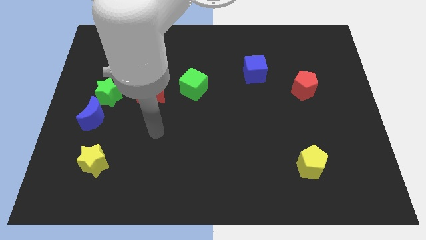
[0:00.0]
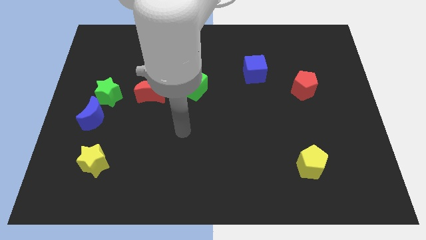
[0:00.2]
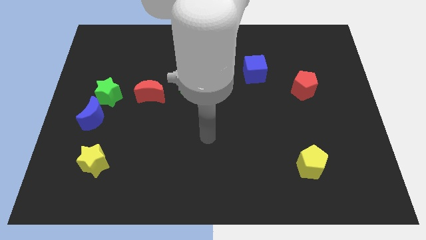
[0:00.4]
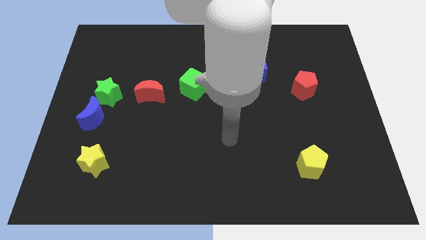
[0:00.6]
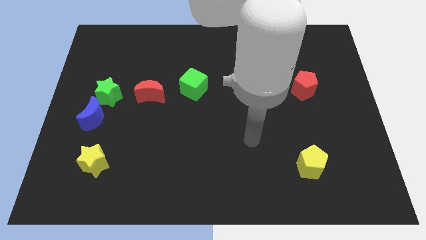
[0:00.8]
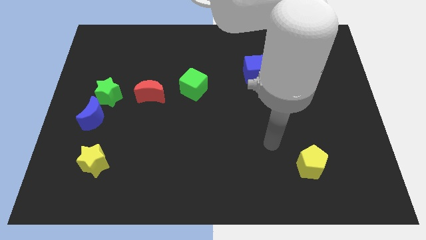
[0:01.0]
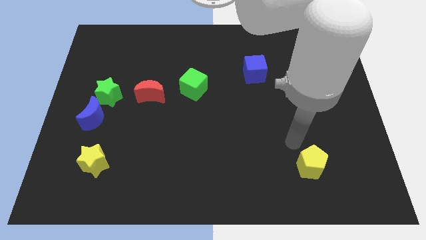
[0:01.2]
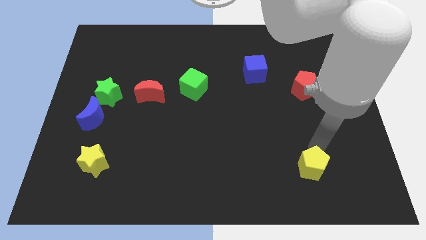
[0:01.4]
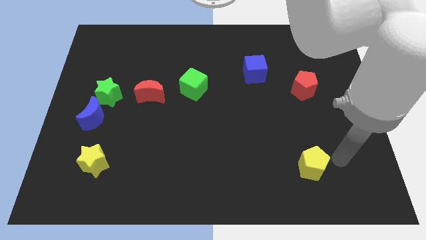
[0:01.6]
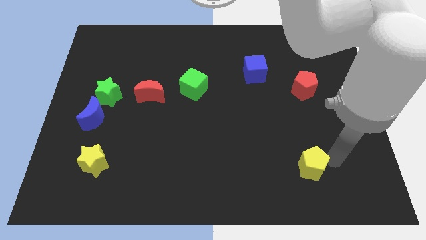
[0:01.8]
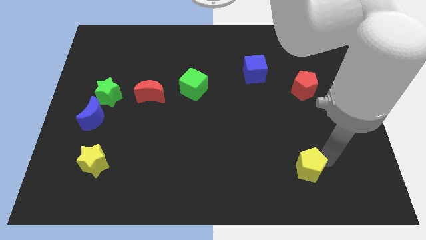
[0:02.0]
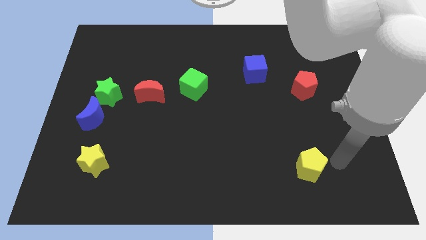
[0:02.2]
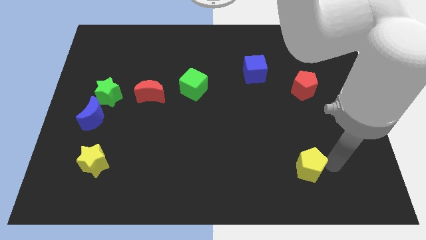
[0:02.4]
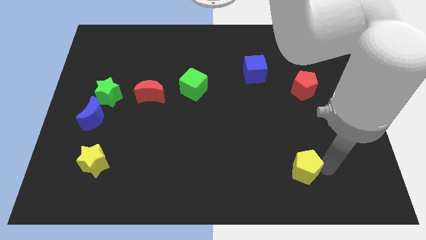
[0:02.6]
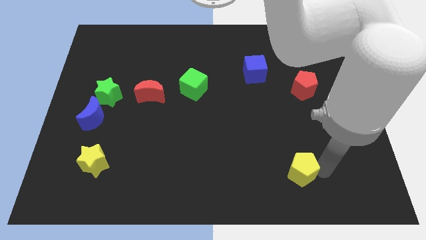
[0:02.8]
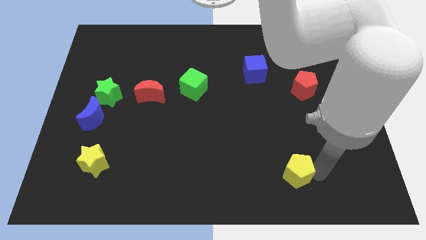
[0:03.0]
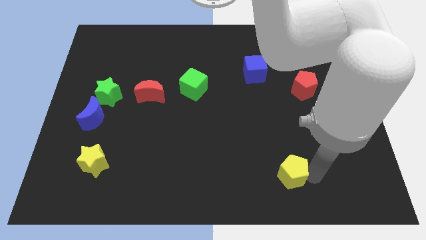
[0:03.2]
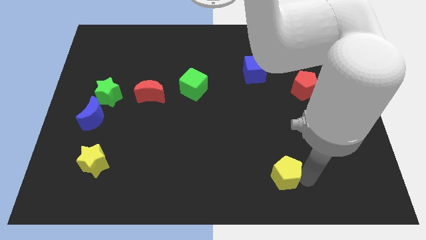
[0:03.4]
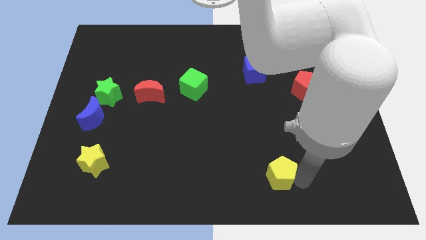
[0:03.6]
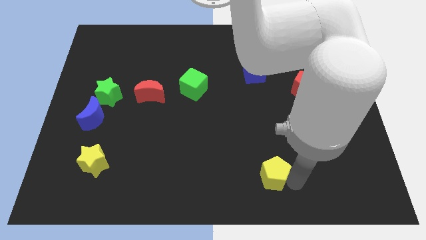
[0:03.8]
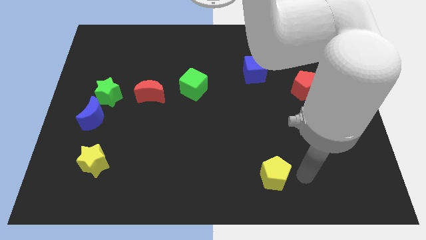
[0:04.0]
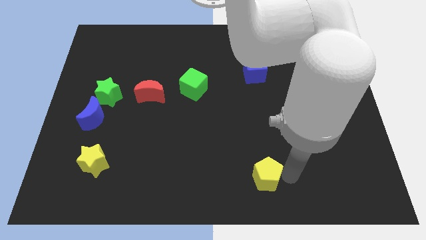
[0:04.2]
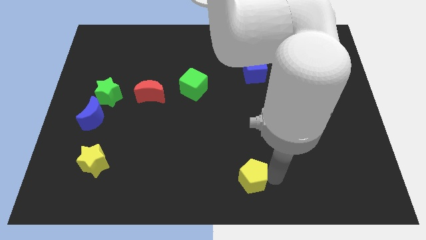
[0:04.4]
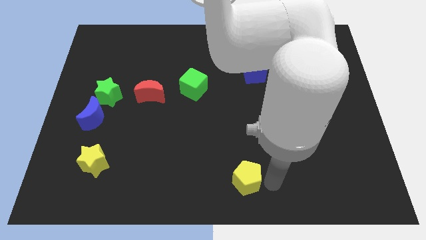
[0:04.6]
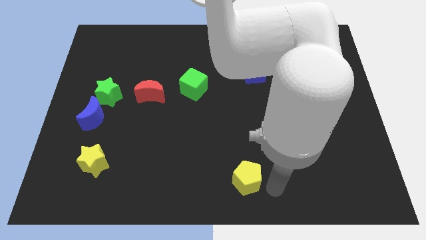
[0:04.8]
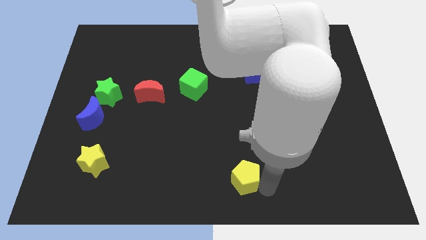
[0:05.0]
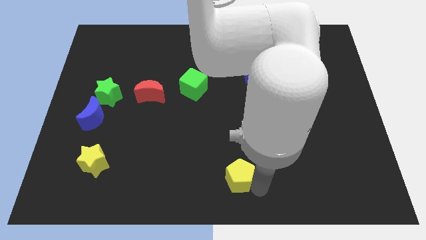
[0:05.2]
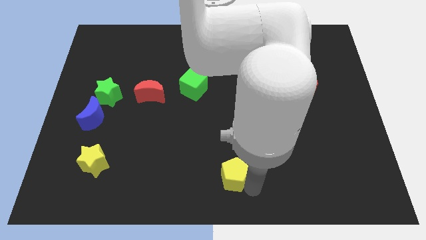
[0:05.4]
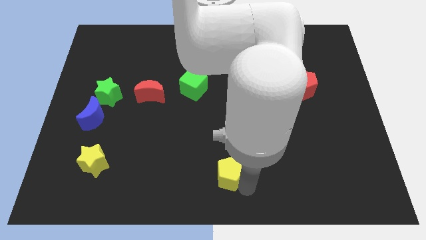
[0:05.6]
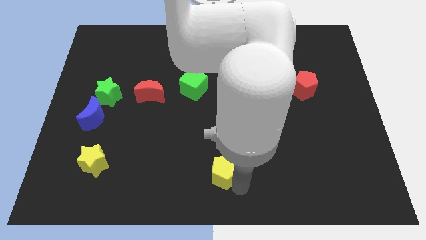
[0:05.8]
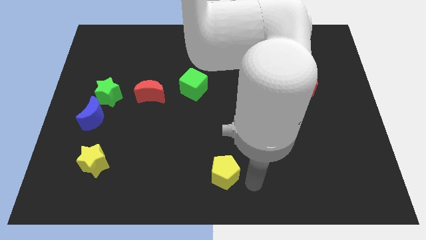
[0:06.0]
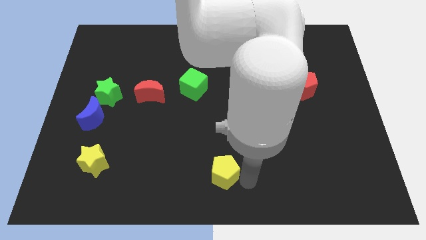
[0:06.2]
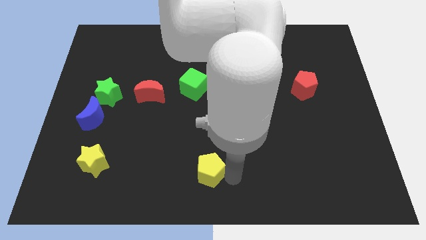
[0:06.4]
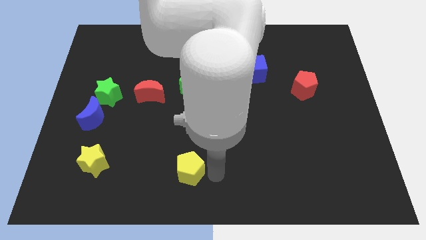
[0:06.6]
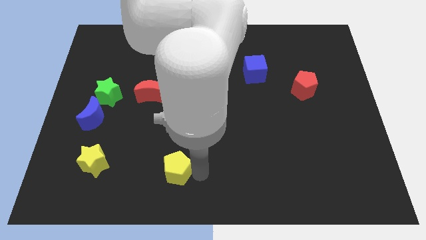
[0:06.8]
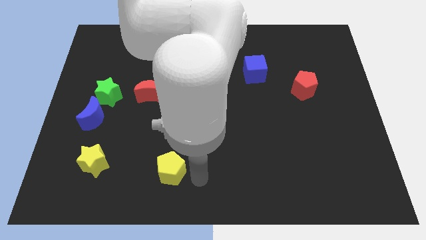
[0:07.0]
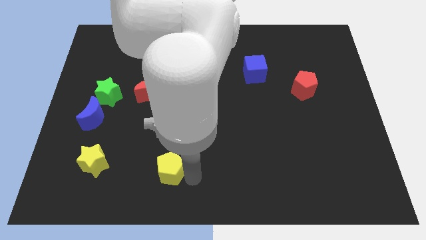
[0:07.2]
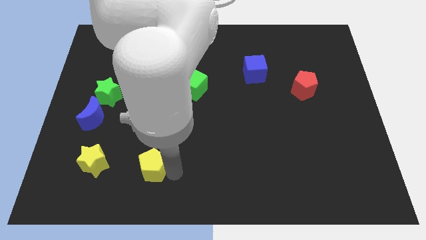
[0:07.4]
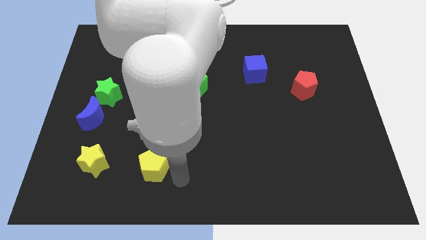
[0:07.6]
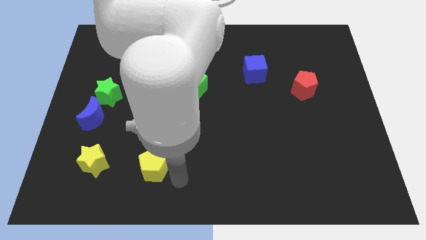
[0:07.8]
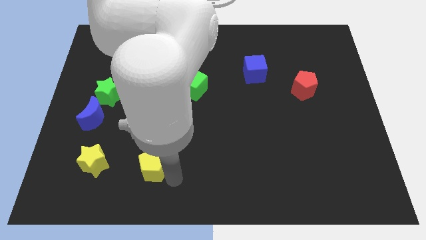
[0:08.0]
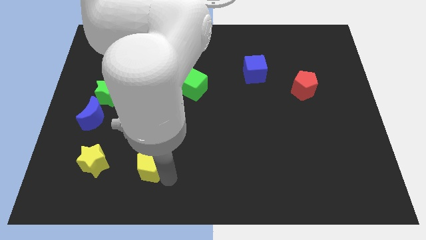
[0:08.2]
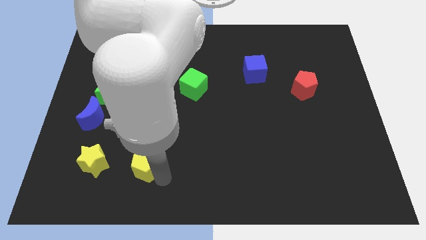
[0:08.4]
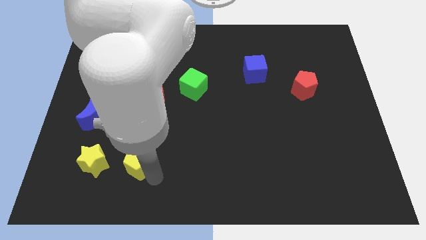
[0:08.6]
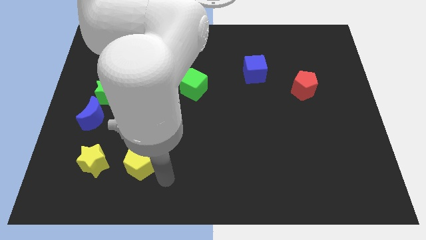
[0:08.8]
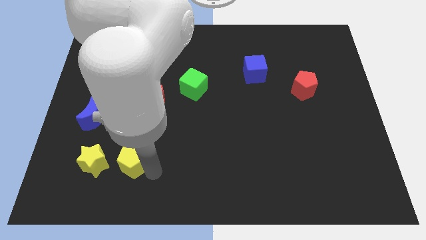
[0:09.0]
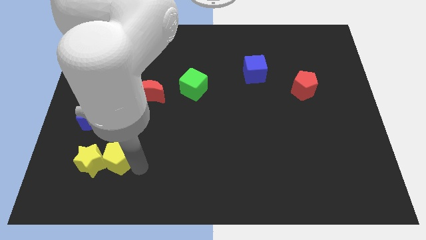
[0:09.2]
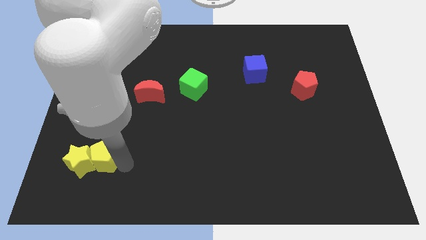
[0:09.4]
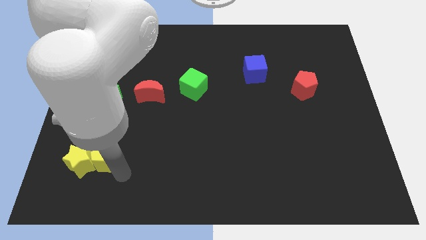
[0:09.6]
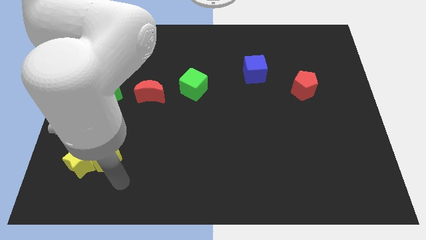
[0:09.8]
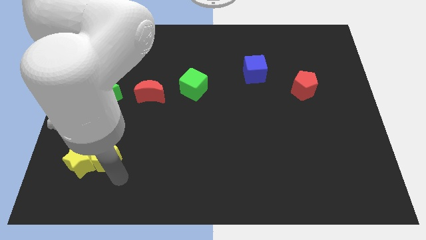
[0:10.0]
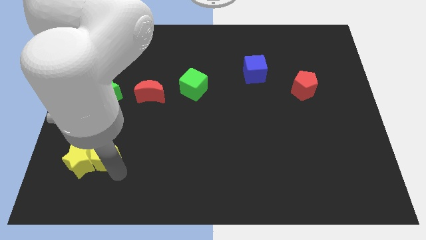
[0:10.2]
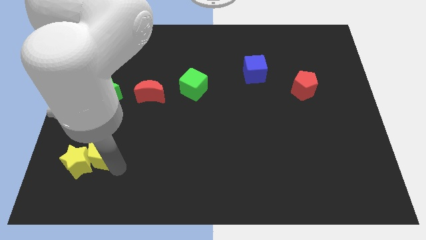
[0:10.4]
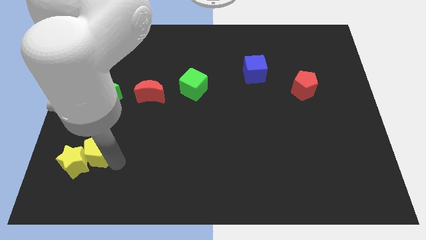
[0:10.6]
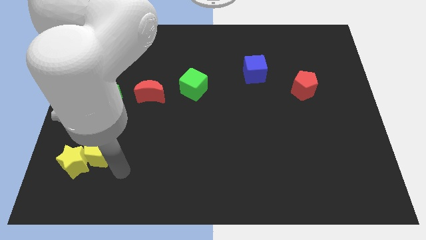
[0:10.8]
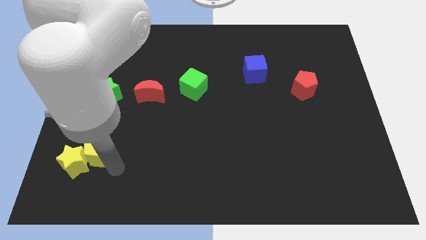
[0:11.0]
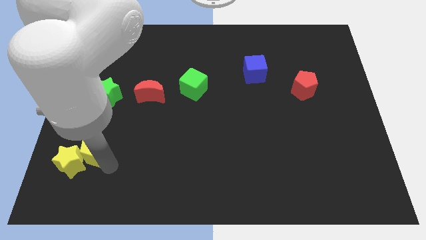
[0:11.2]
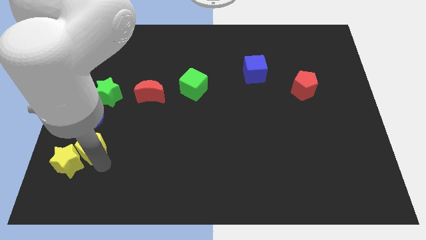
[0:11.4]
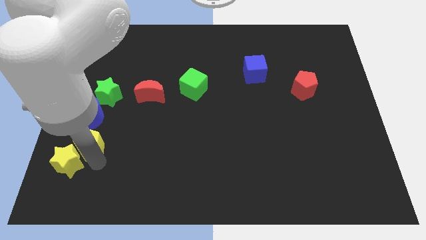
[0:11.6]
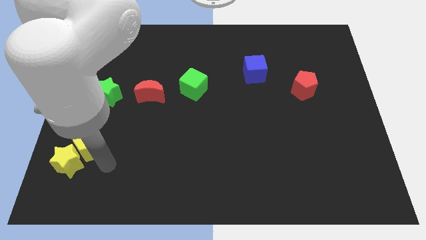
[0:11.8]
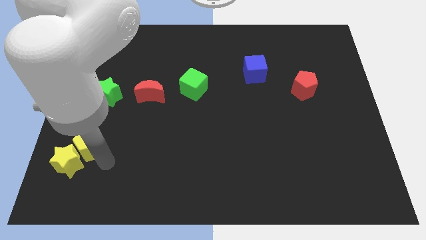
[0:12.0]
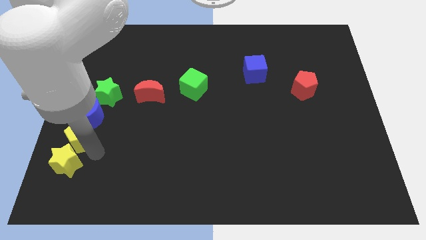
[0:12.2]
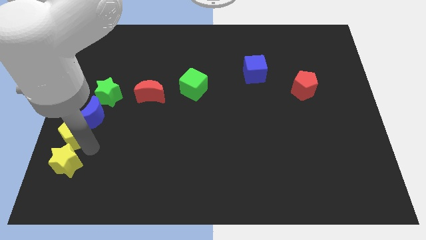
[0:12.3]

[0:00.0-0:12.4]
move the yellow pentagon to the left side
